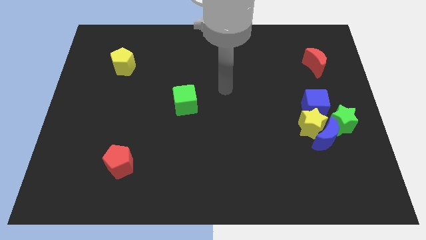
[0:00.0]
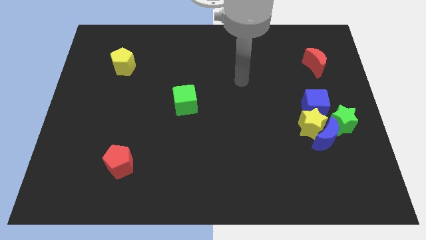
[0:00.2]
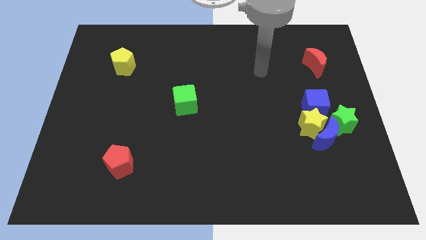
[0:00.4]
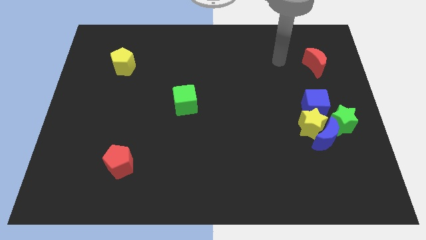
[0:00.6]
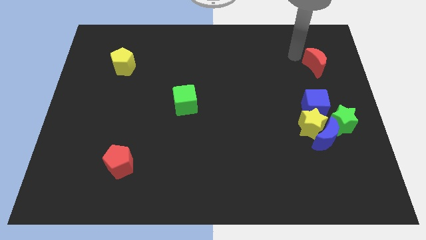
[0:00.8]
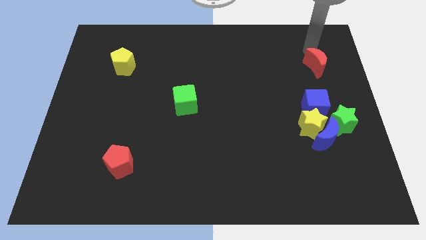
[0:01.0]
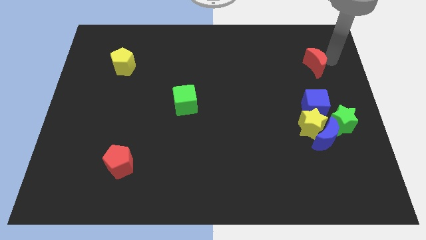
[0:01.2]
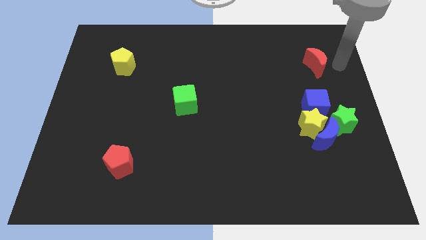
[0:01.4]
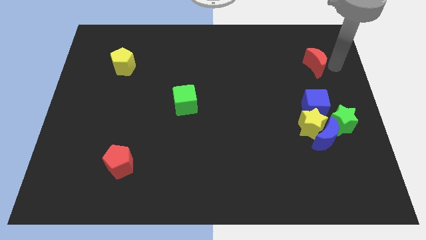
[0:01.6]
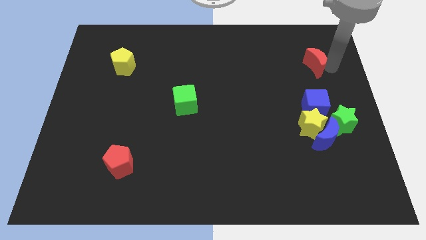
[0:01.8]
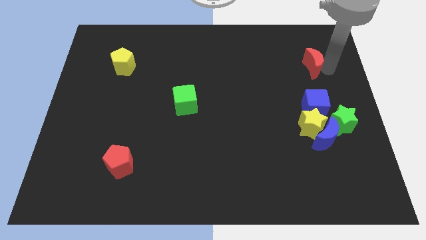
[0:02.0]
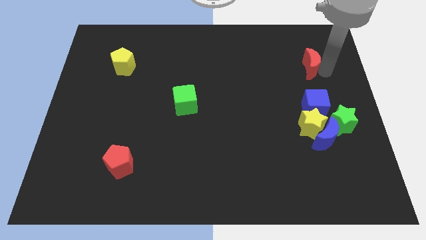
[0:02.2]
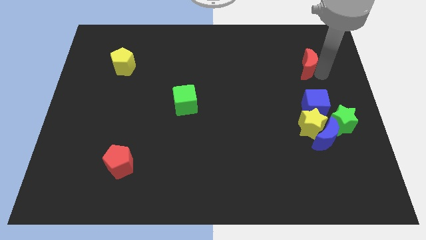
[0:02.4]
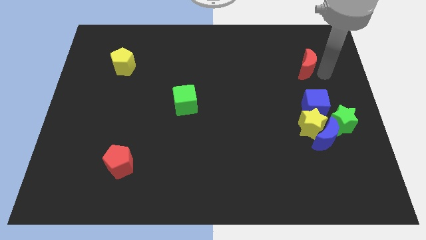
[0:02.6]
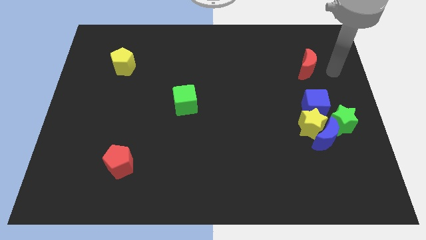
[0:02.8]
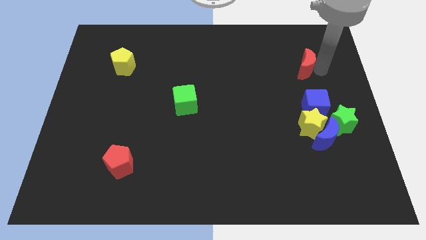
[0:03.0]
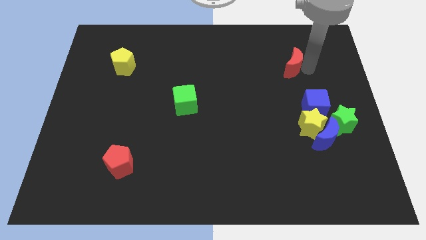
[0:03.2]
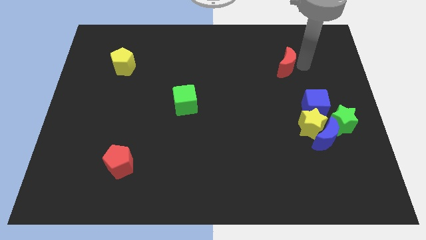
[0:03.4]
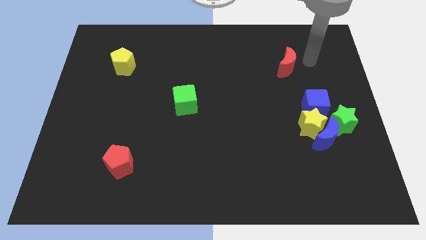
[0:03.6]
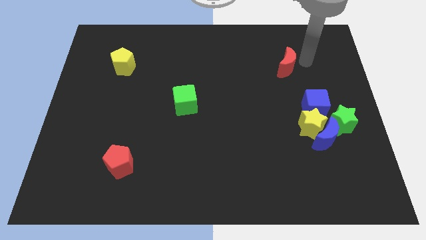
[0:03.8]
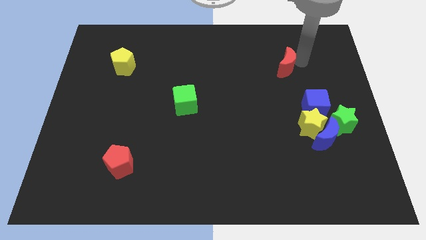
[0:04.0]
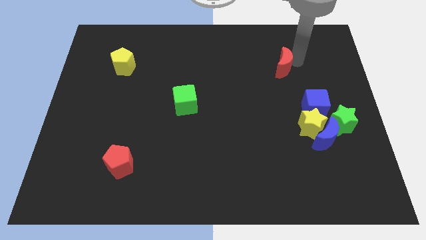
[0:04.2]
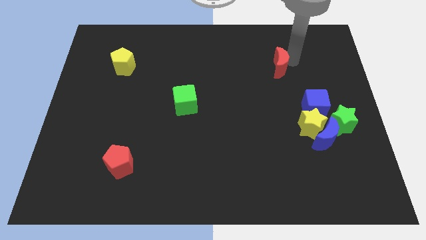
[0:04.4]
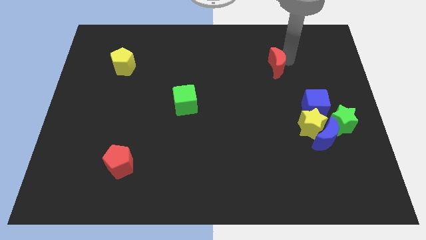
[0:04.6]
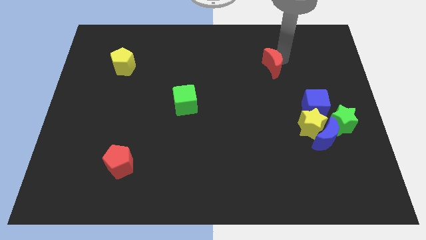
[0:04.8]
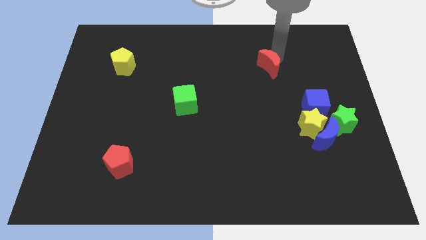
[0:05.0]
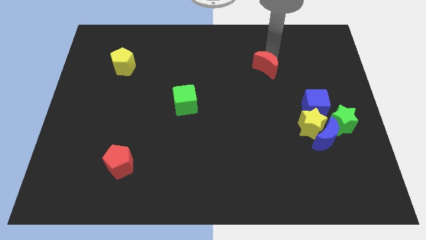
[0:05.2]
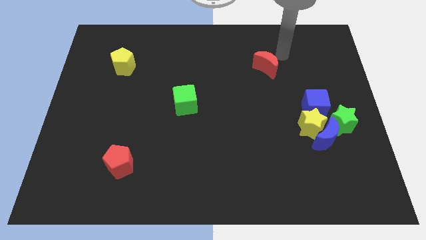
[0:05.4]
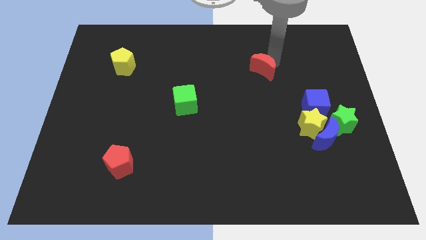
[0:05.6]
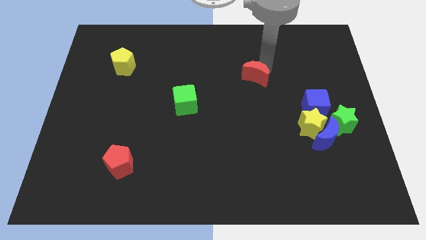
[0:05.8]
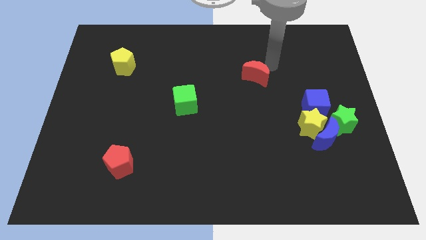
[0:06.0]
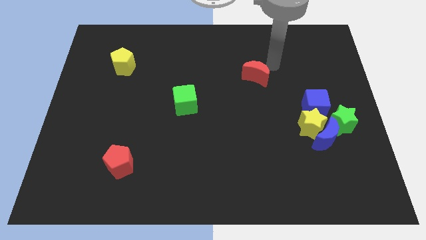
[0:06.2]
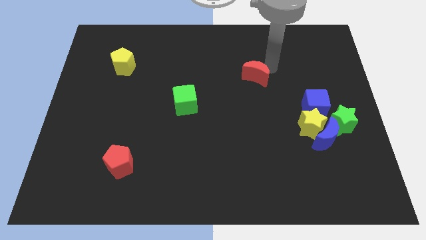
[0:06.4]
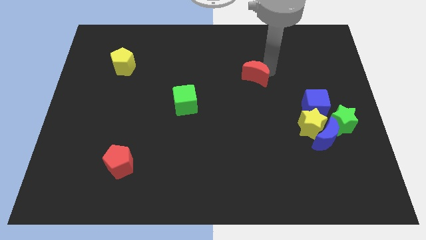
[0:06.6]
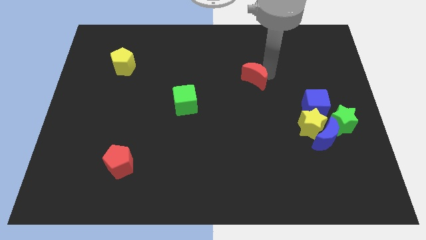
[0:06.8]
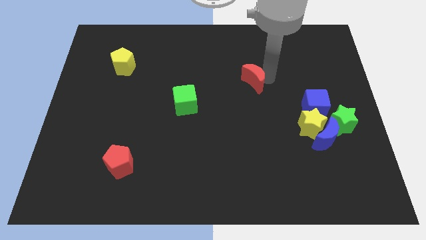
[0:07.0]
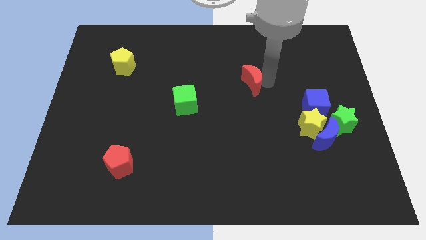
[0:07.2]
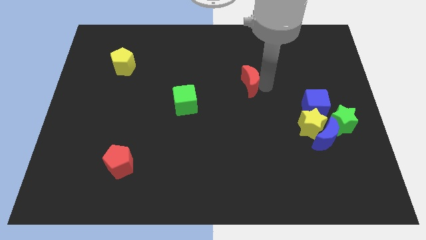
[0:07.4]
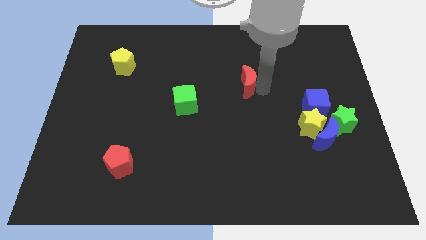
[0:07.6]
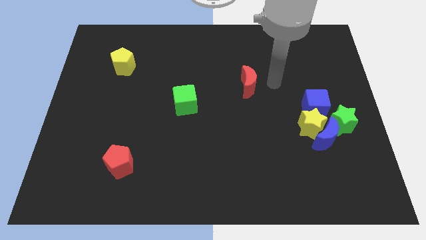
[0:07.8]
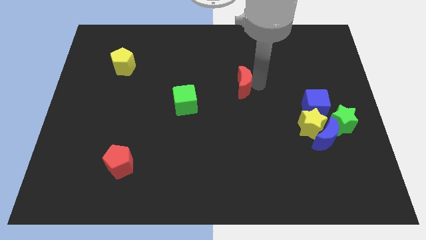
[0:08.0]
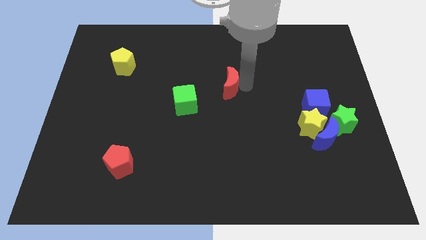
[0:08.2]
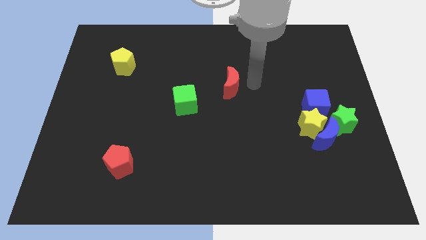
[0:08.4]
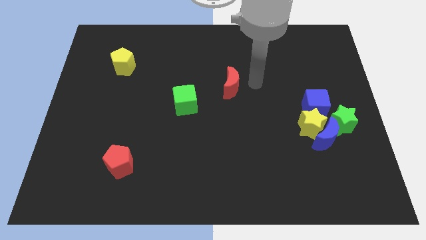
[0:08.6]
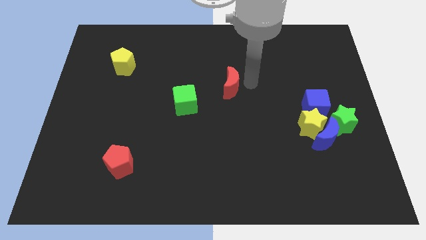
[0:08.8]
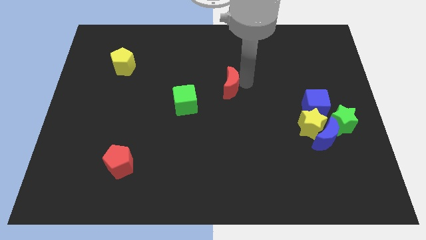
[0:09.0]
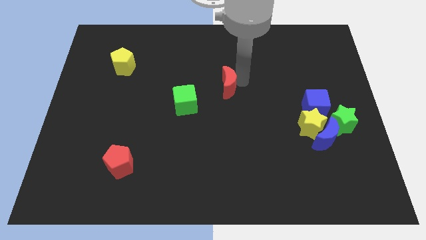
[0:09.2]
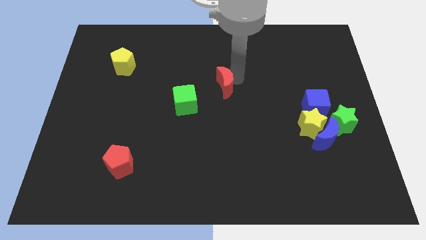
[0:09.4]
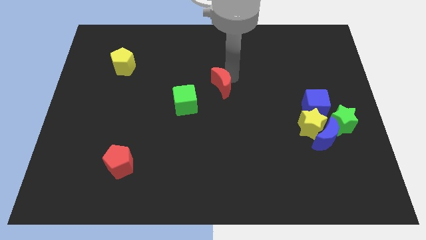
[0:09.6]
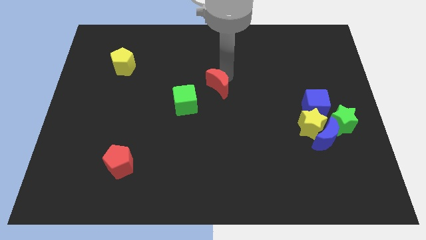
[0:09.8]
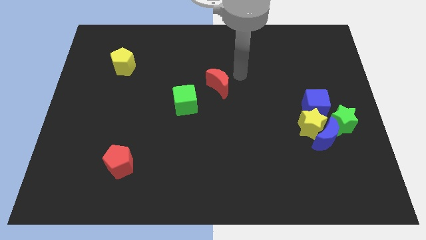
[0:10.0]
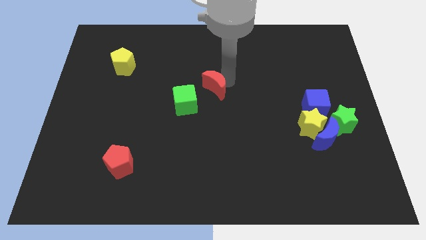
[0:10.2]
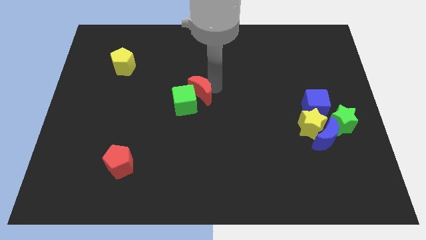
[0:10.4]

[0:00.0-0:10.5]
push the red moon towards the green cube

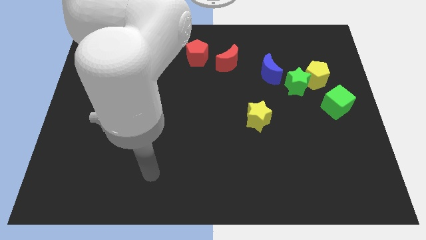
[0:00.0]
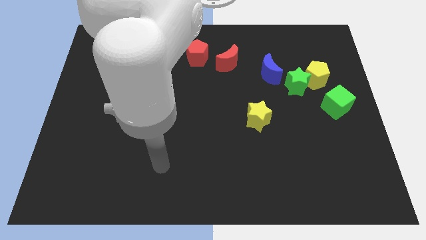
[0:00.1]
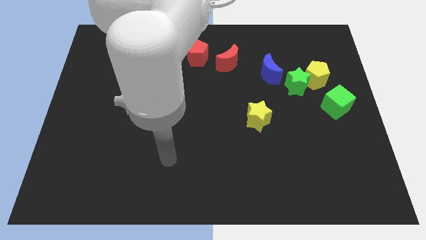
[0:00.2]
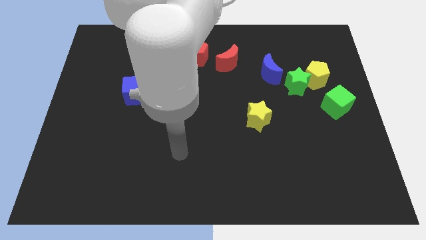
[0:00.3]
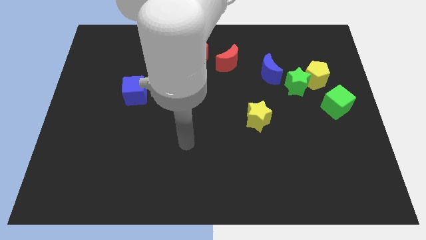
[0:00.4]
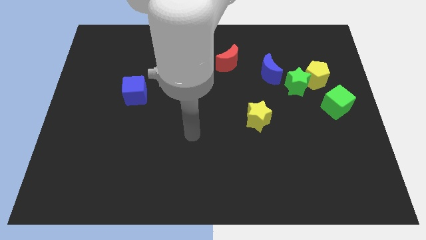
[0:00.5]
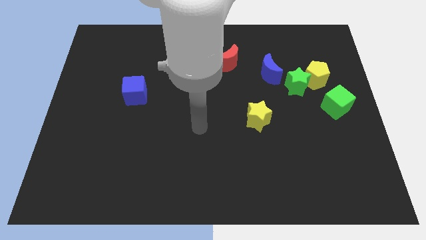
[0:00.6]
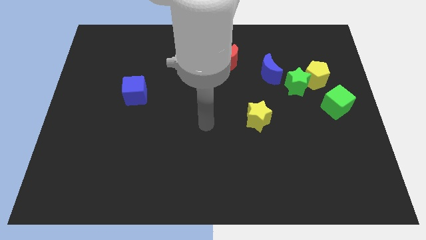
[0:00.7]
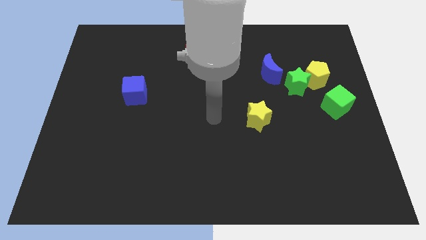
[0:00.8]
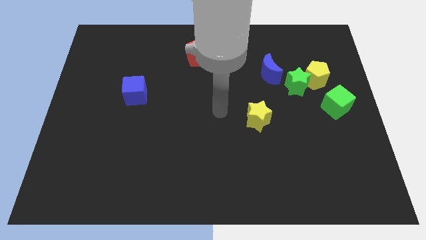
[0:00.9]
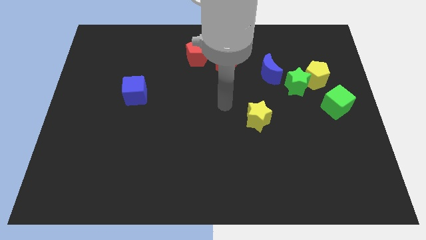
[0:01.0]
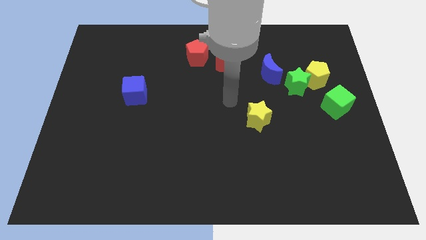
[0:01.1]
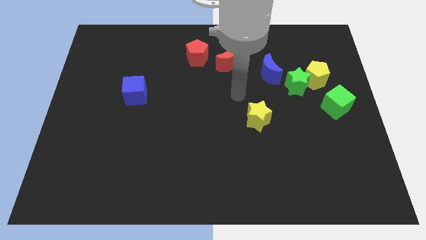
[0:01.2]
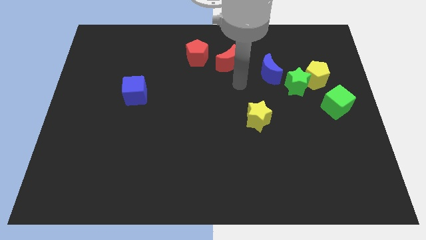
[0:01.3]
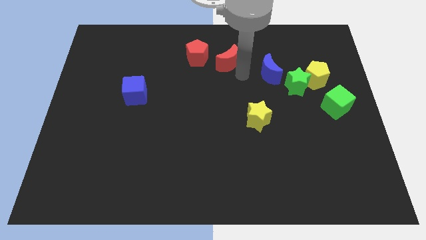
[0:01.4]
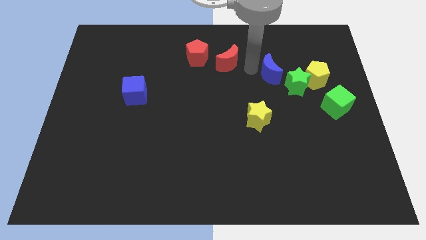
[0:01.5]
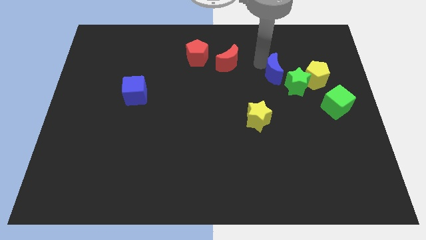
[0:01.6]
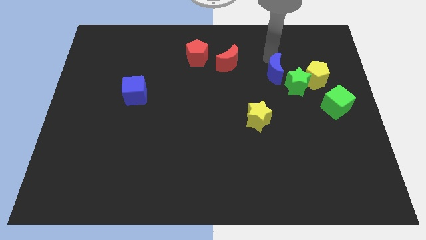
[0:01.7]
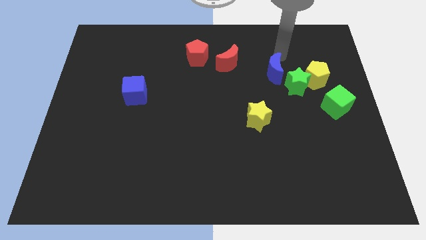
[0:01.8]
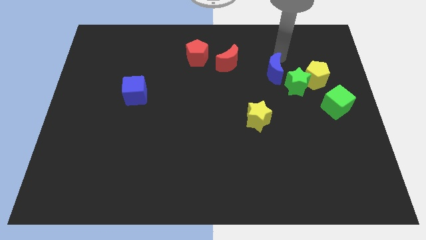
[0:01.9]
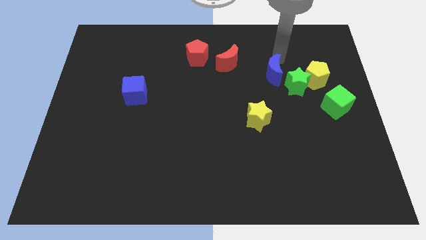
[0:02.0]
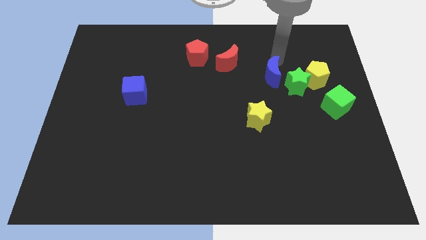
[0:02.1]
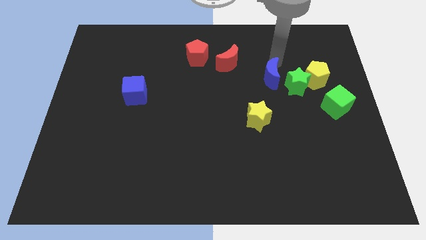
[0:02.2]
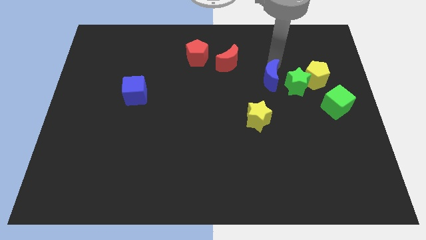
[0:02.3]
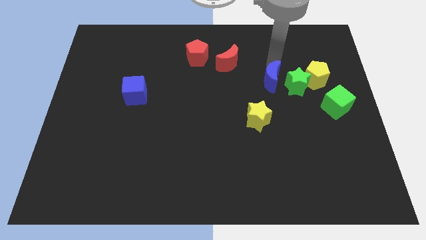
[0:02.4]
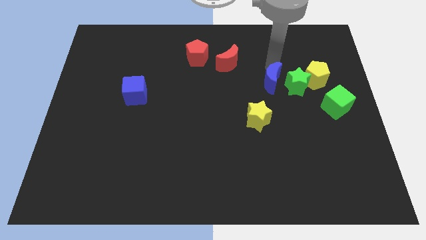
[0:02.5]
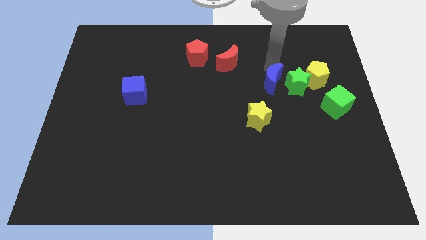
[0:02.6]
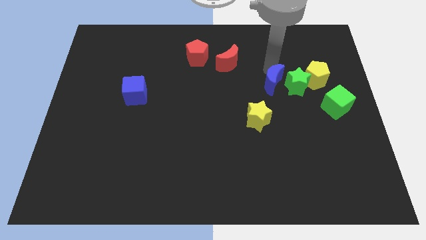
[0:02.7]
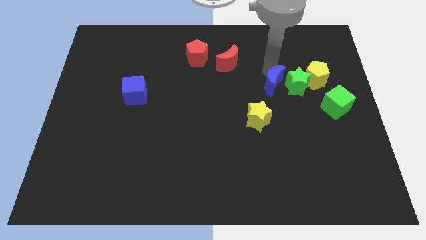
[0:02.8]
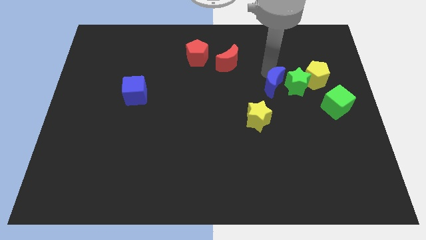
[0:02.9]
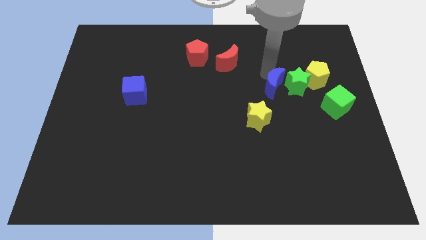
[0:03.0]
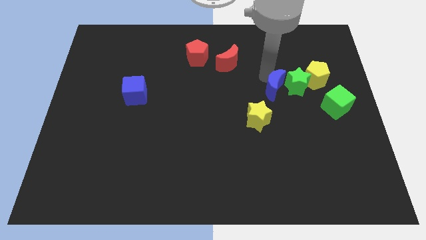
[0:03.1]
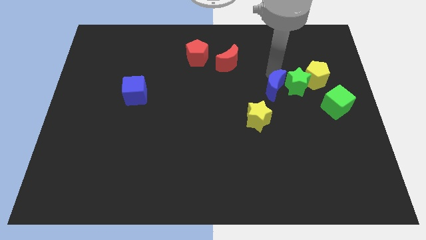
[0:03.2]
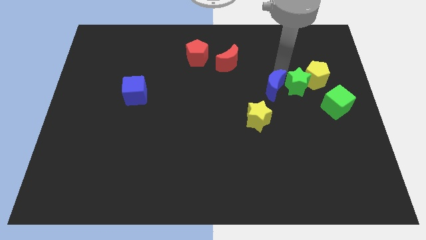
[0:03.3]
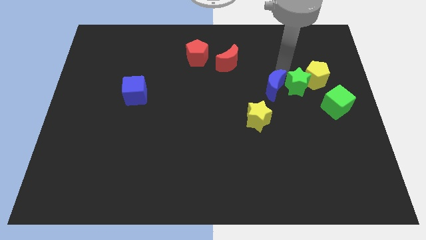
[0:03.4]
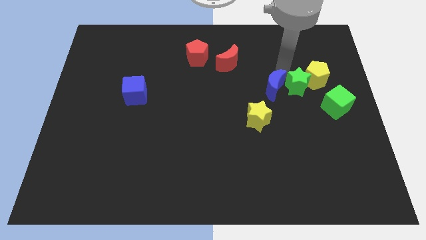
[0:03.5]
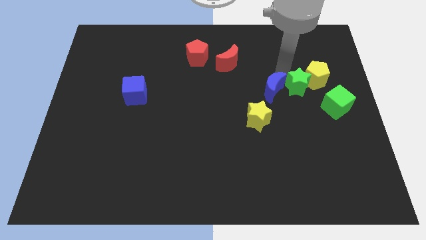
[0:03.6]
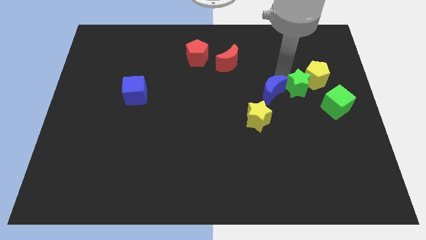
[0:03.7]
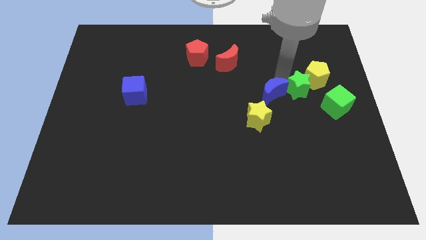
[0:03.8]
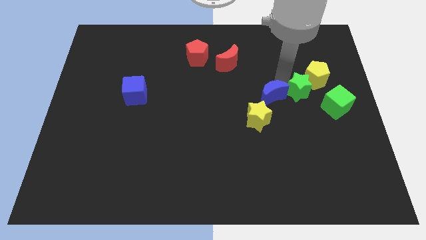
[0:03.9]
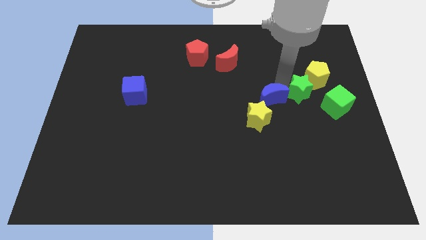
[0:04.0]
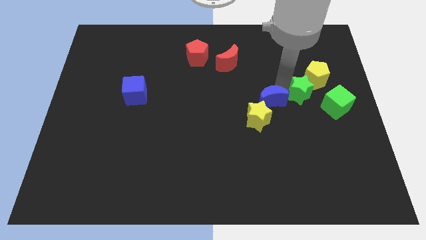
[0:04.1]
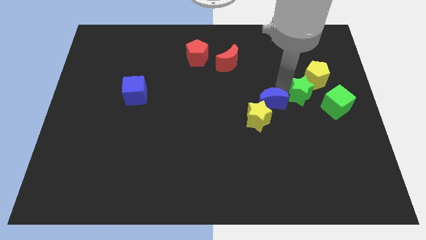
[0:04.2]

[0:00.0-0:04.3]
move the blue moon towards the yellow star
